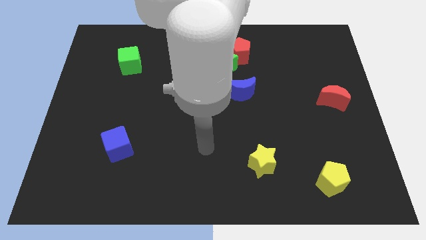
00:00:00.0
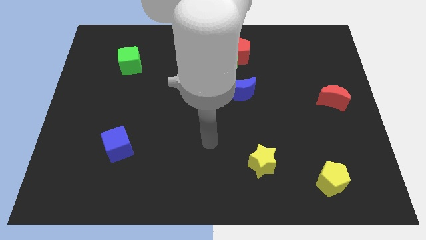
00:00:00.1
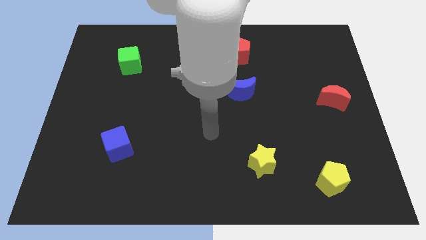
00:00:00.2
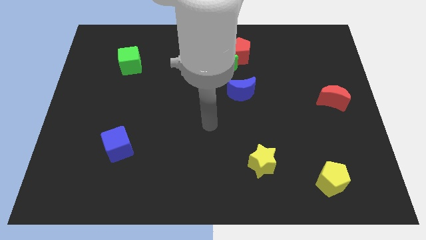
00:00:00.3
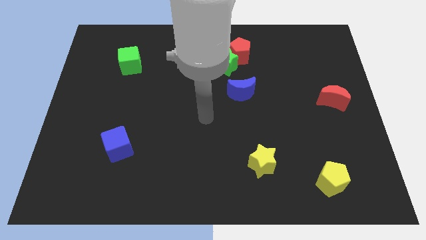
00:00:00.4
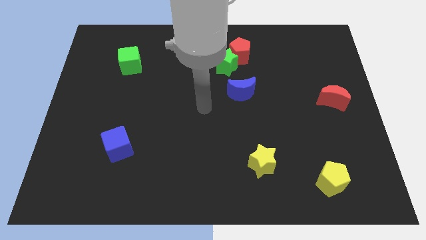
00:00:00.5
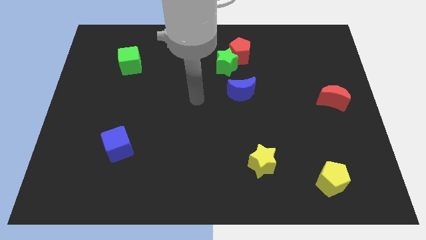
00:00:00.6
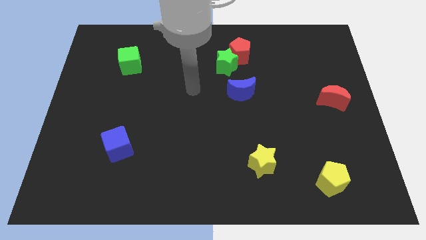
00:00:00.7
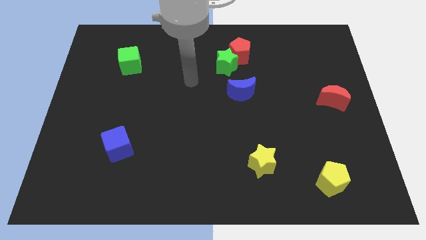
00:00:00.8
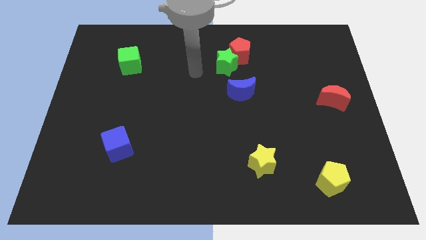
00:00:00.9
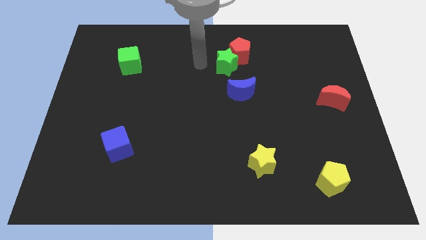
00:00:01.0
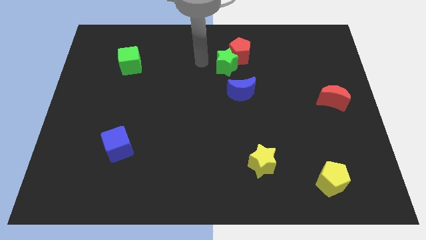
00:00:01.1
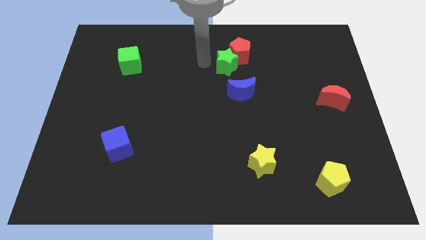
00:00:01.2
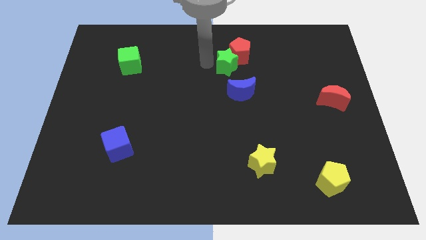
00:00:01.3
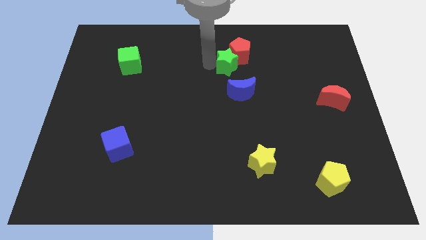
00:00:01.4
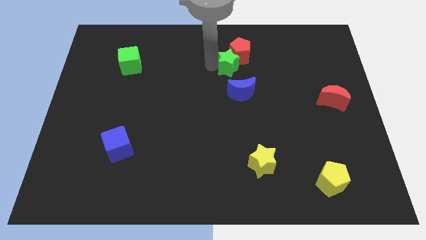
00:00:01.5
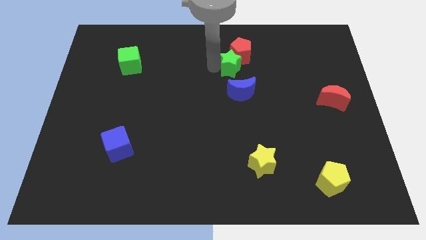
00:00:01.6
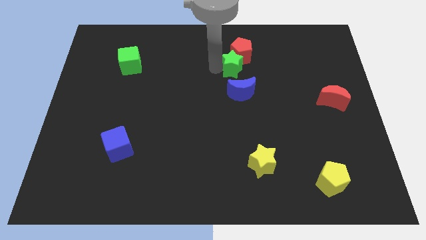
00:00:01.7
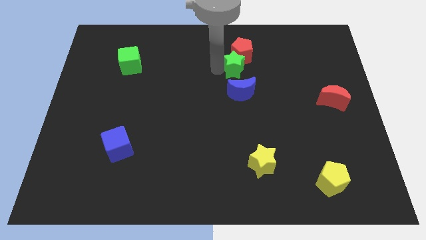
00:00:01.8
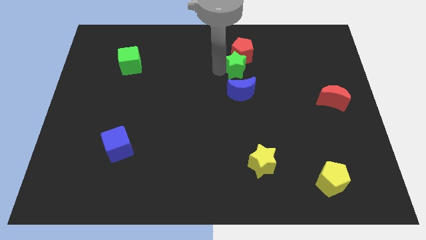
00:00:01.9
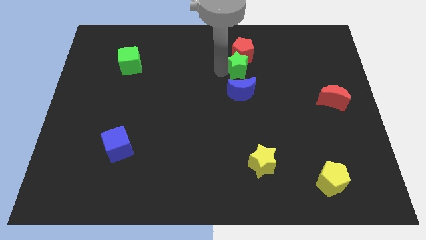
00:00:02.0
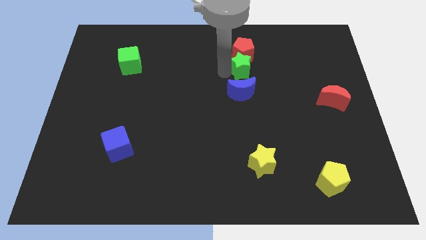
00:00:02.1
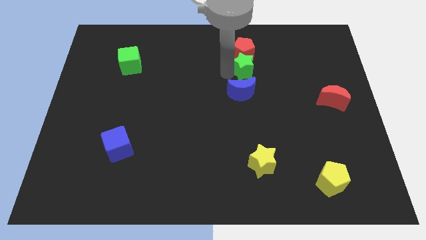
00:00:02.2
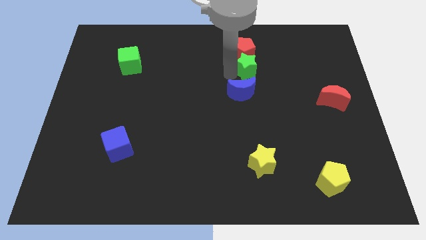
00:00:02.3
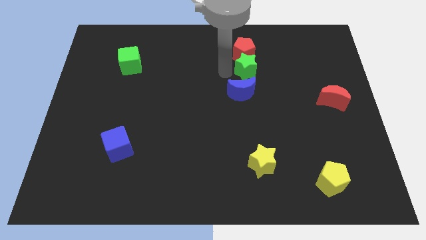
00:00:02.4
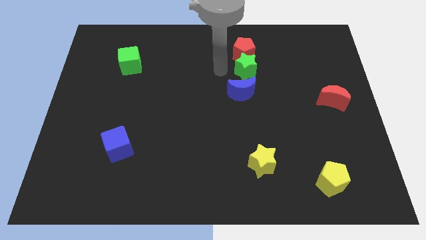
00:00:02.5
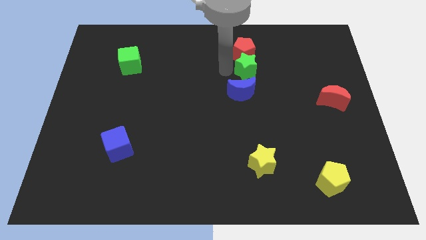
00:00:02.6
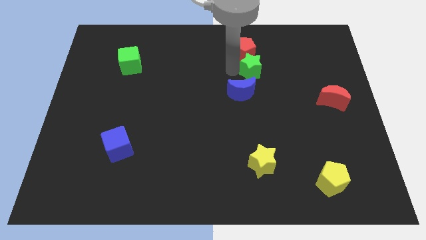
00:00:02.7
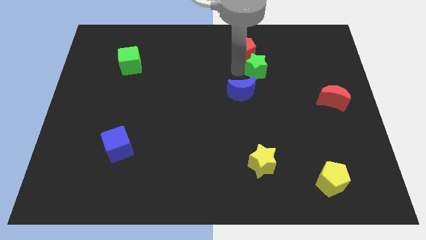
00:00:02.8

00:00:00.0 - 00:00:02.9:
slide the green star slightly right

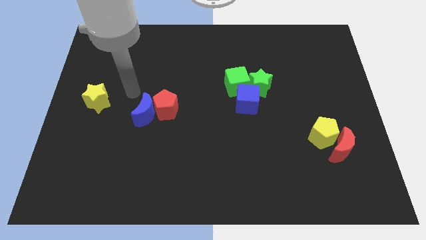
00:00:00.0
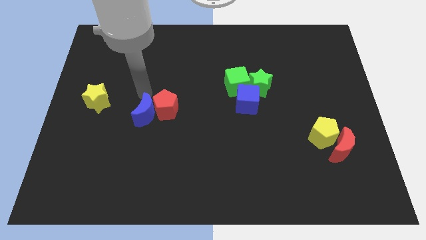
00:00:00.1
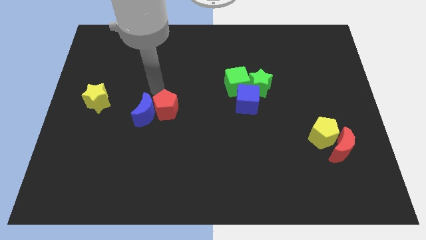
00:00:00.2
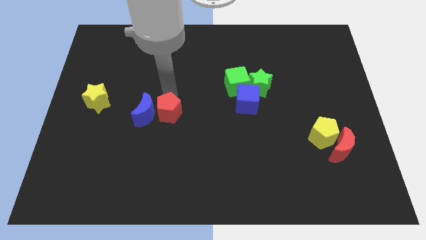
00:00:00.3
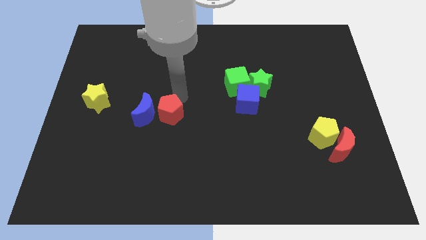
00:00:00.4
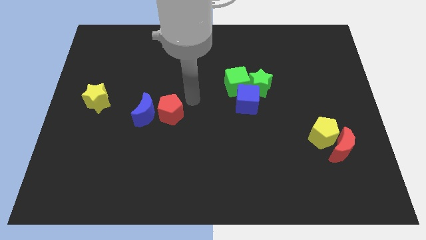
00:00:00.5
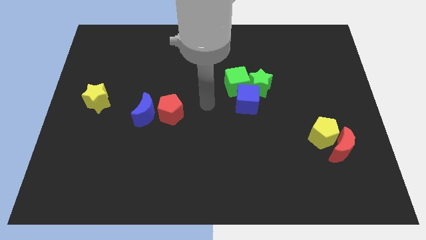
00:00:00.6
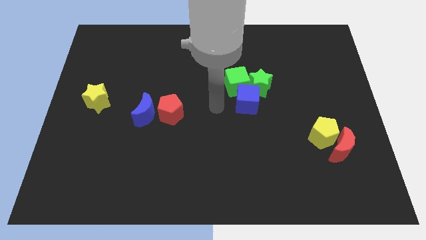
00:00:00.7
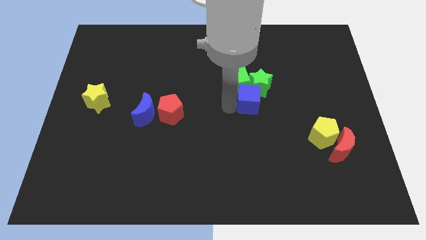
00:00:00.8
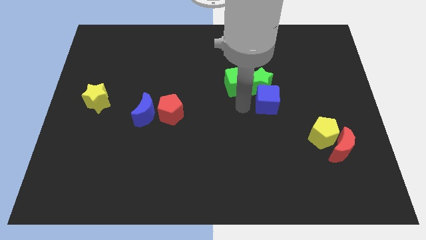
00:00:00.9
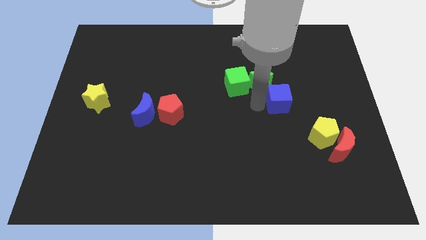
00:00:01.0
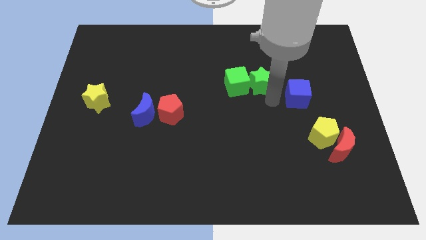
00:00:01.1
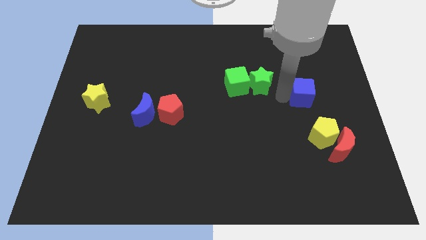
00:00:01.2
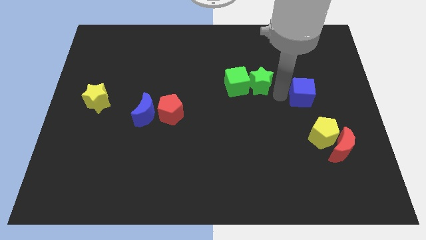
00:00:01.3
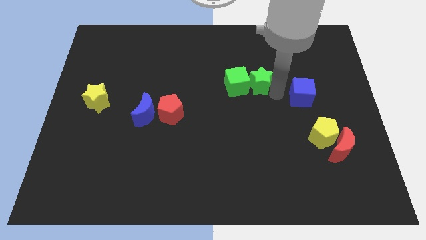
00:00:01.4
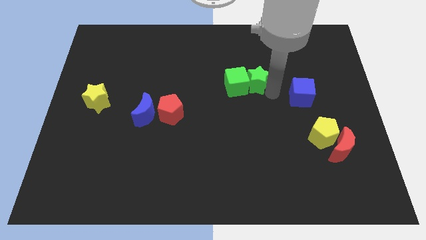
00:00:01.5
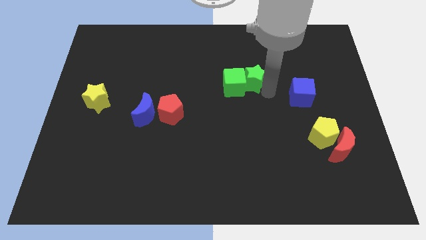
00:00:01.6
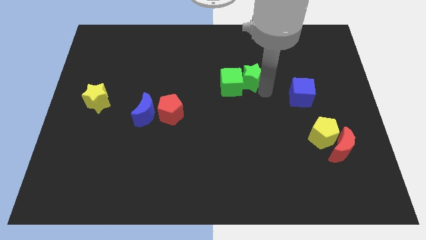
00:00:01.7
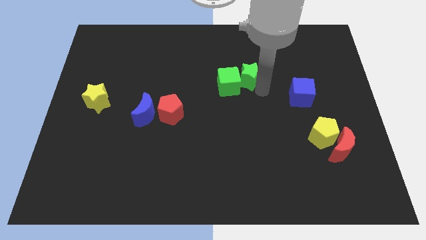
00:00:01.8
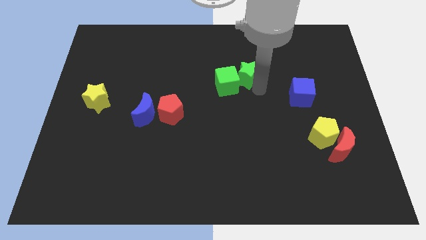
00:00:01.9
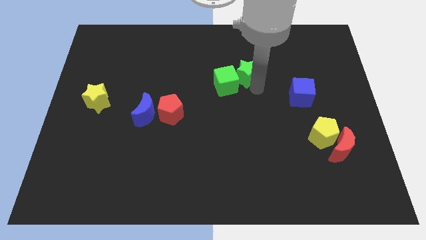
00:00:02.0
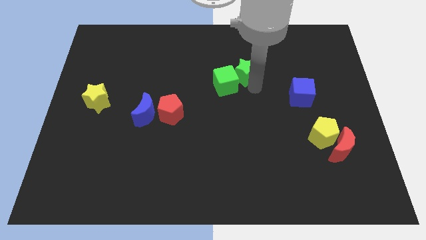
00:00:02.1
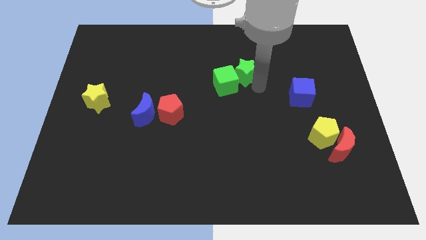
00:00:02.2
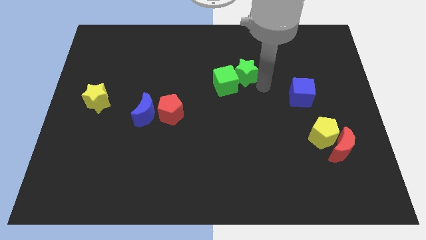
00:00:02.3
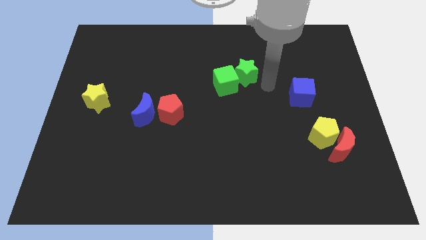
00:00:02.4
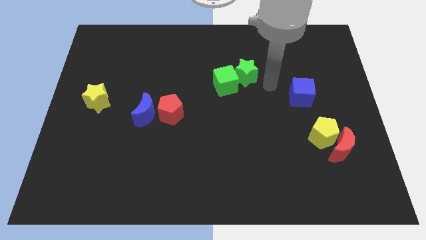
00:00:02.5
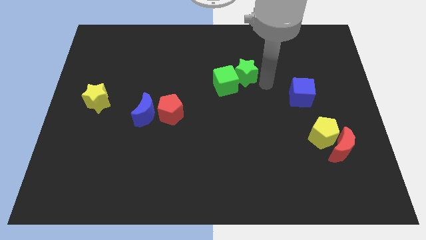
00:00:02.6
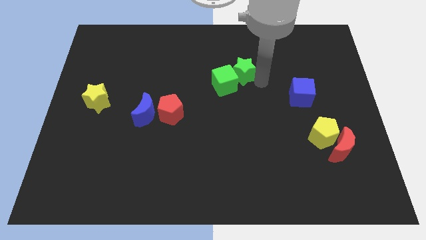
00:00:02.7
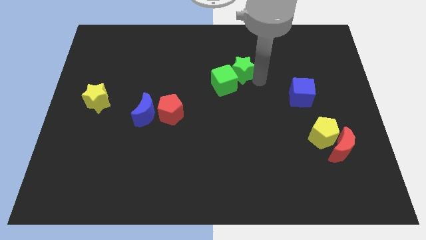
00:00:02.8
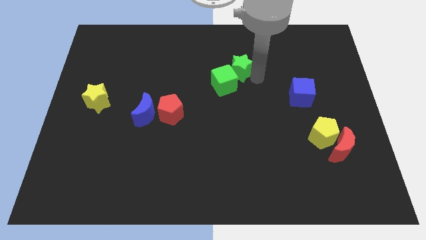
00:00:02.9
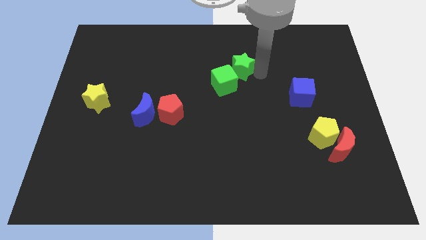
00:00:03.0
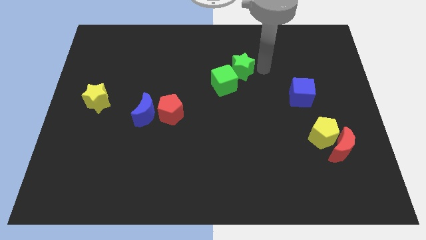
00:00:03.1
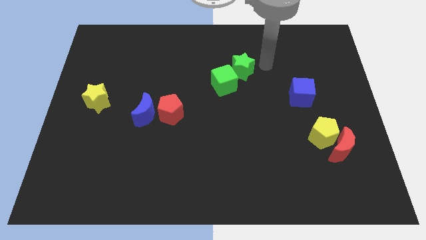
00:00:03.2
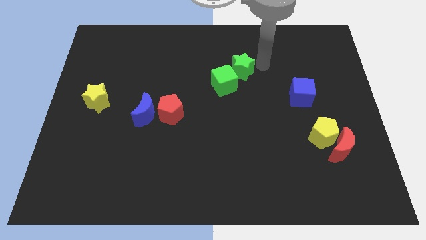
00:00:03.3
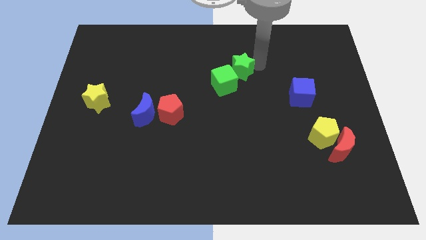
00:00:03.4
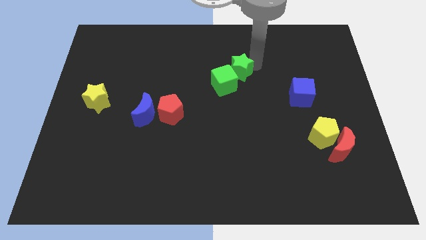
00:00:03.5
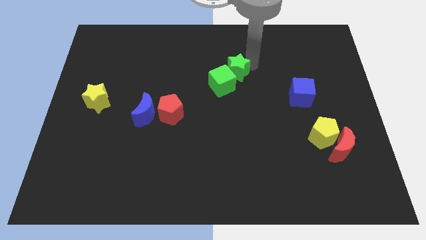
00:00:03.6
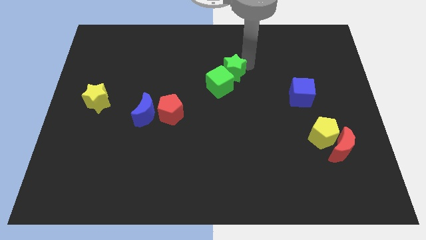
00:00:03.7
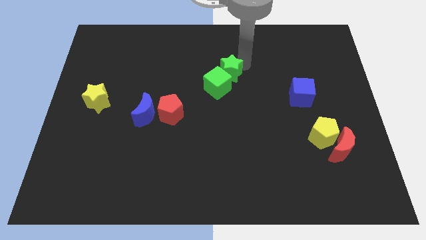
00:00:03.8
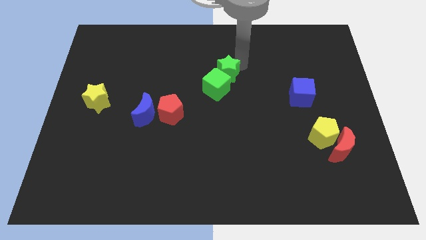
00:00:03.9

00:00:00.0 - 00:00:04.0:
push the green star a little bit to the left

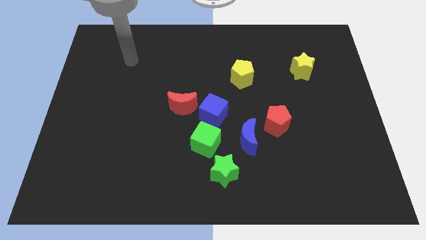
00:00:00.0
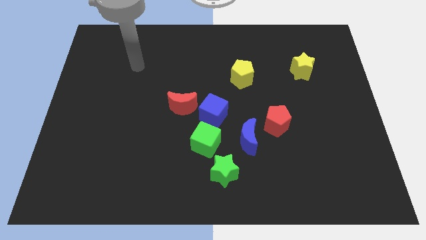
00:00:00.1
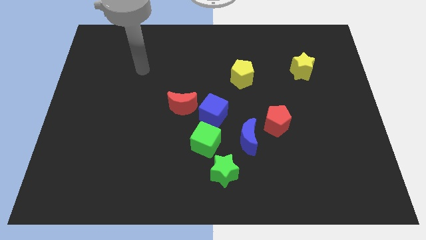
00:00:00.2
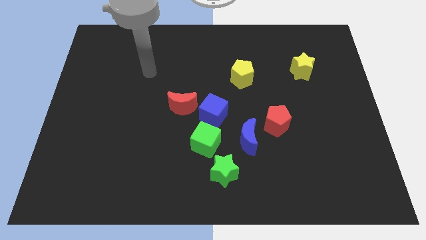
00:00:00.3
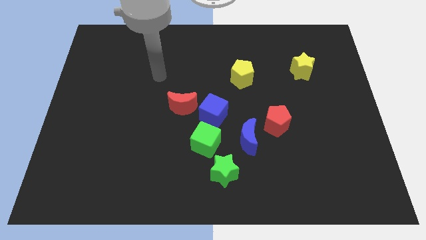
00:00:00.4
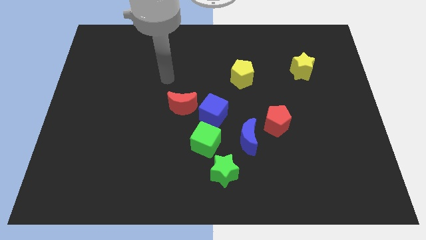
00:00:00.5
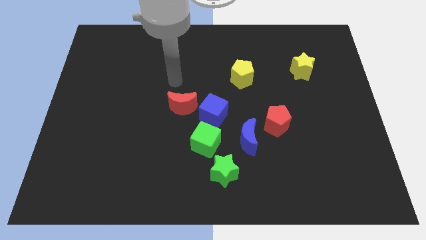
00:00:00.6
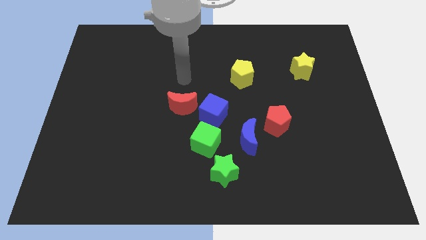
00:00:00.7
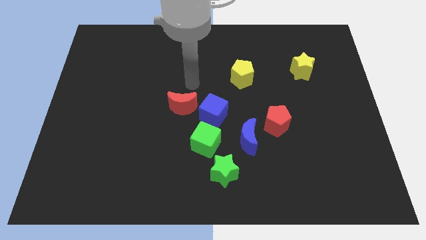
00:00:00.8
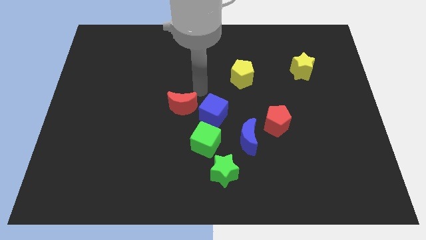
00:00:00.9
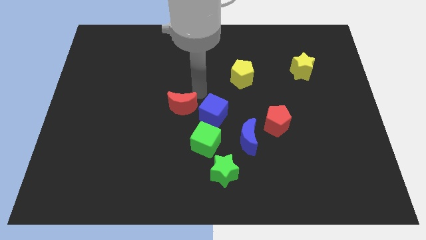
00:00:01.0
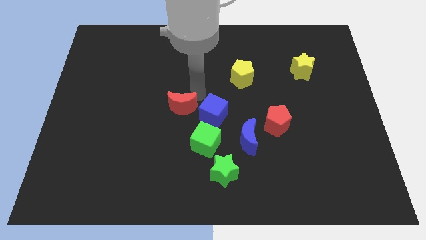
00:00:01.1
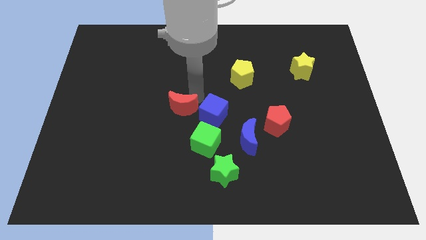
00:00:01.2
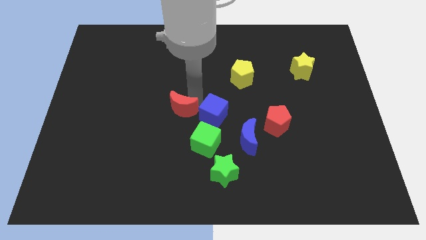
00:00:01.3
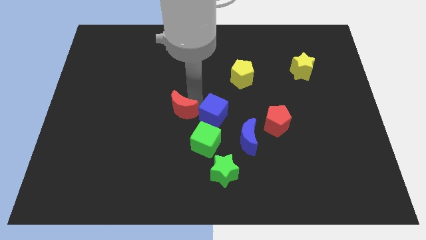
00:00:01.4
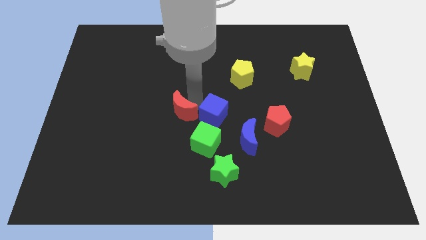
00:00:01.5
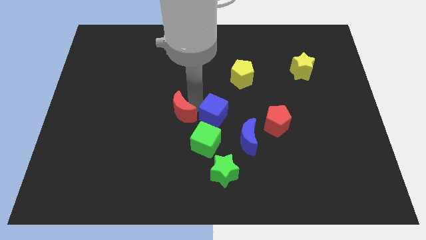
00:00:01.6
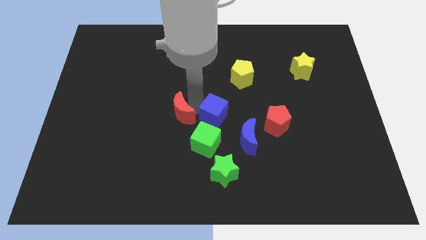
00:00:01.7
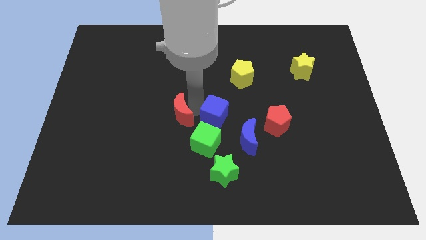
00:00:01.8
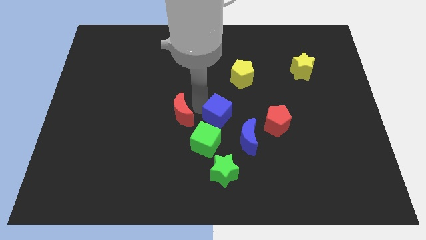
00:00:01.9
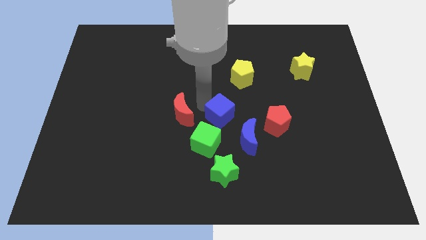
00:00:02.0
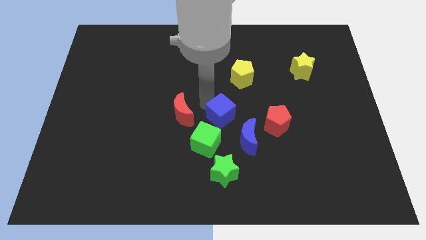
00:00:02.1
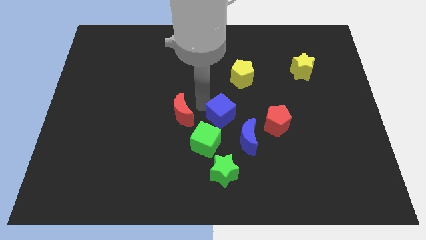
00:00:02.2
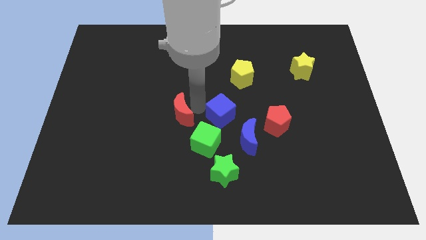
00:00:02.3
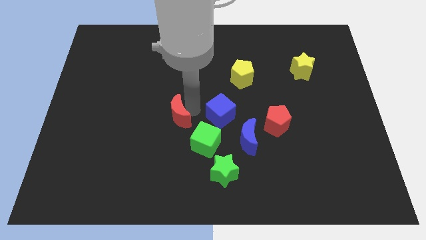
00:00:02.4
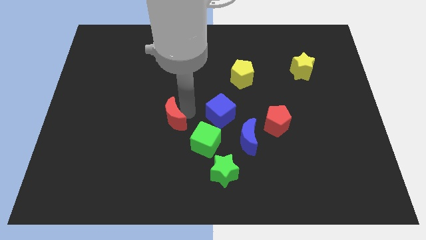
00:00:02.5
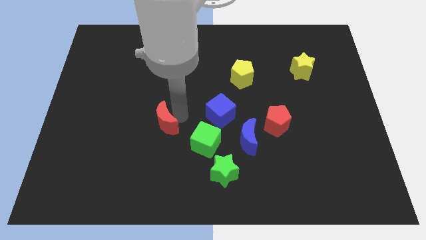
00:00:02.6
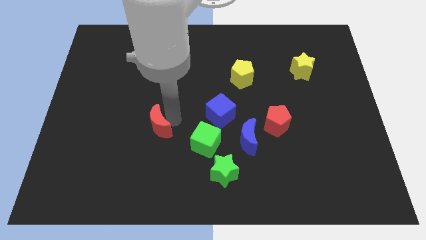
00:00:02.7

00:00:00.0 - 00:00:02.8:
push the red moon down and left diagonally a bit
